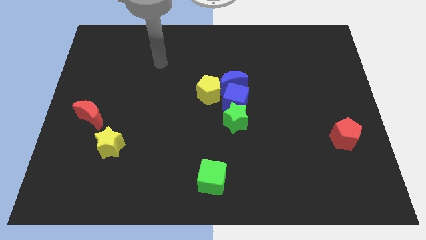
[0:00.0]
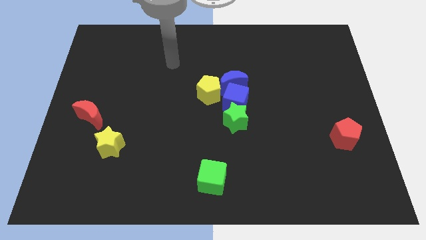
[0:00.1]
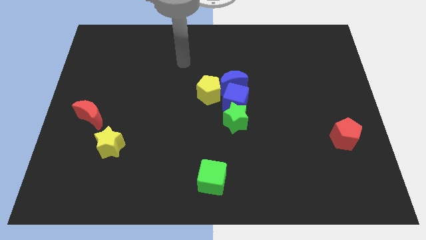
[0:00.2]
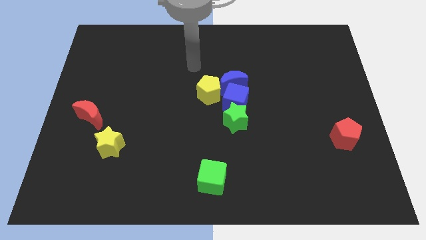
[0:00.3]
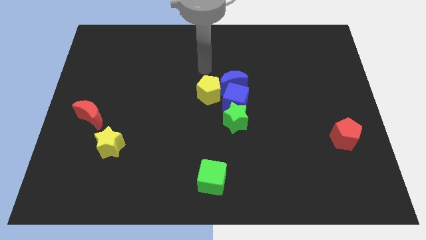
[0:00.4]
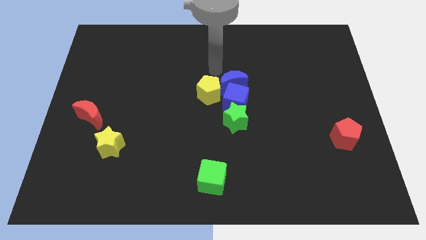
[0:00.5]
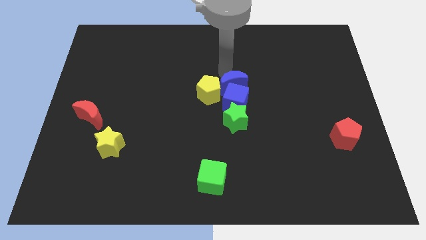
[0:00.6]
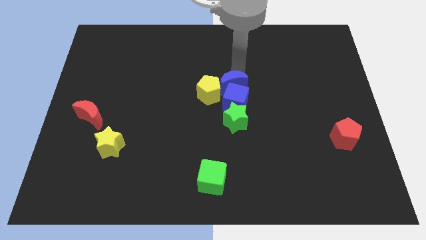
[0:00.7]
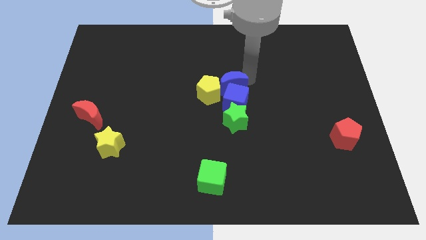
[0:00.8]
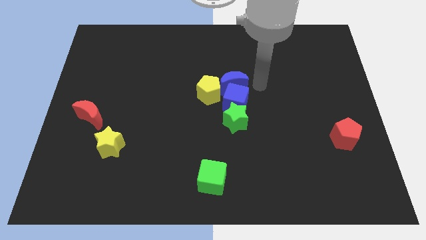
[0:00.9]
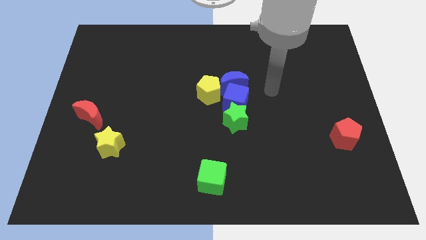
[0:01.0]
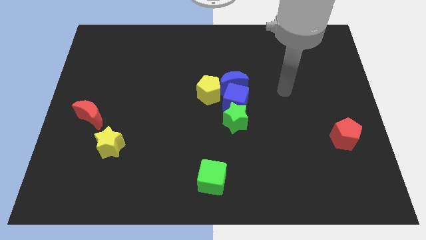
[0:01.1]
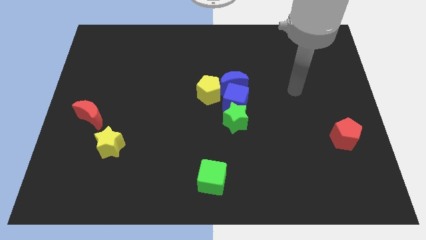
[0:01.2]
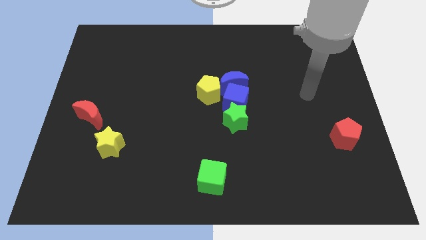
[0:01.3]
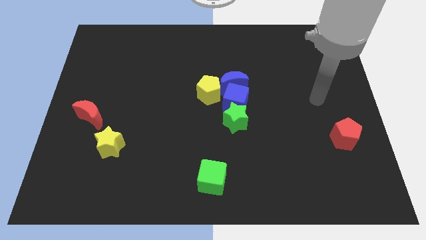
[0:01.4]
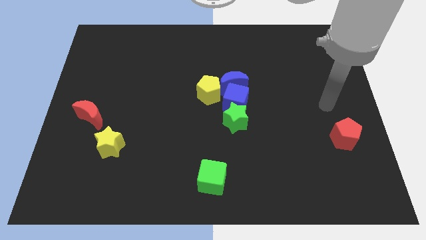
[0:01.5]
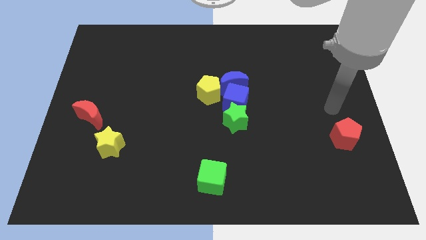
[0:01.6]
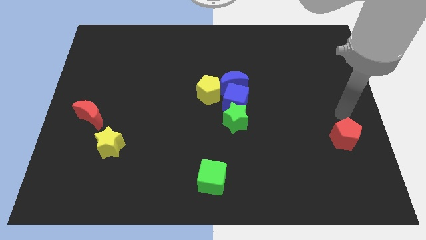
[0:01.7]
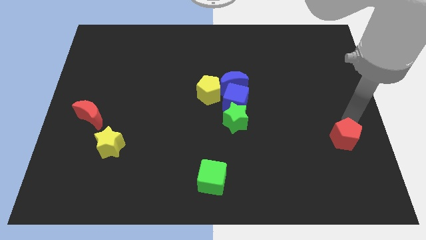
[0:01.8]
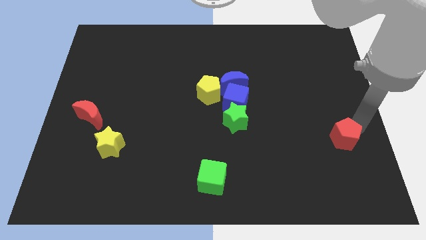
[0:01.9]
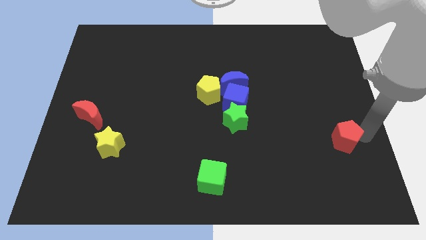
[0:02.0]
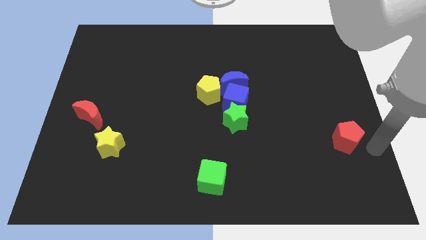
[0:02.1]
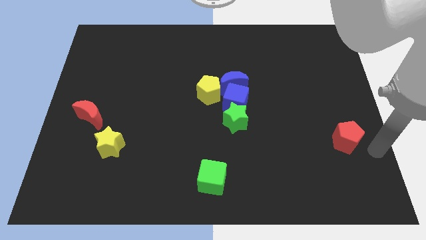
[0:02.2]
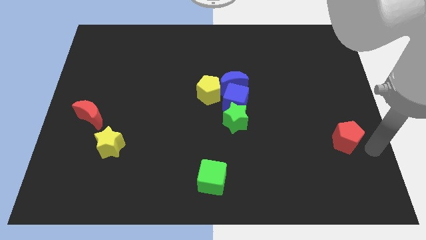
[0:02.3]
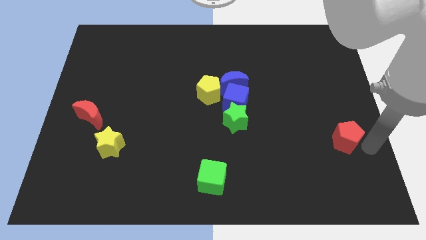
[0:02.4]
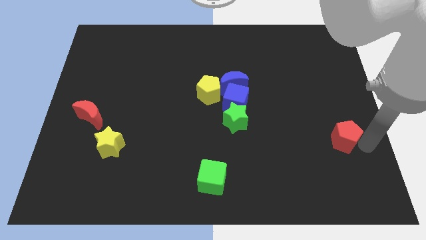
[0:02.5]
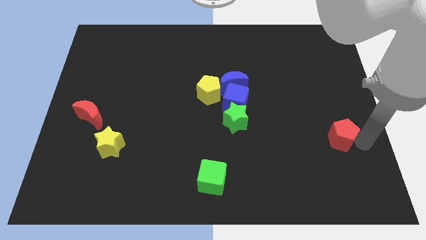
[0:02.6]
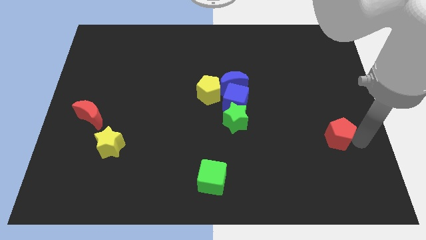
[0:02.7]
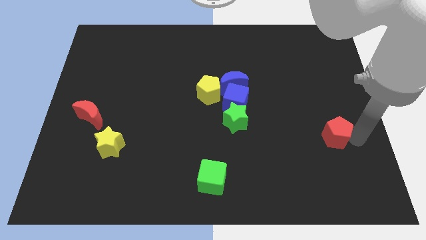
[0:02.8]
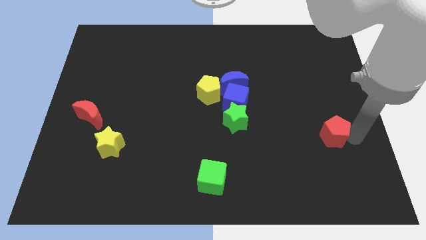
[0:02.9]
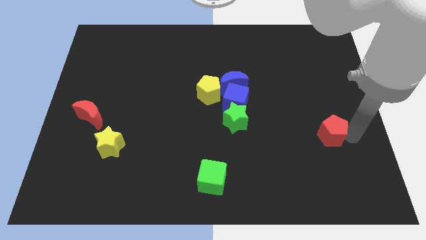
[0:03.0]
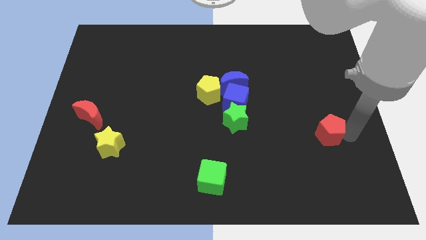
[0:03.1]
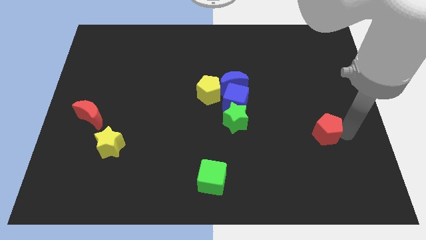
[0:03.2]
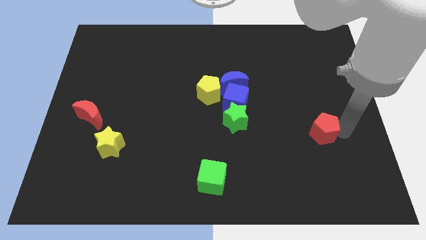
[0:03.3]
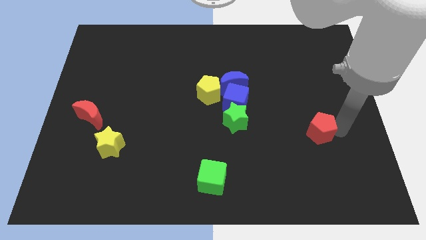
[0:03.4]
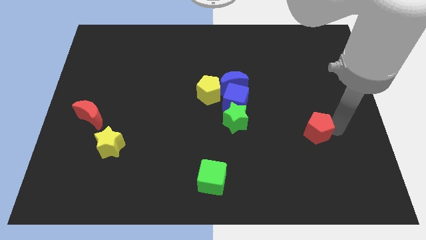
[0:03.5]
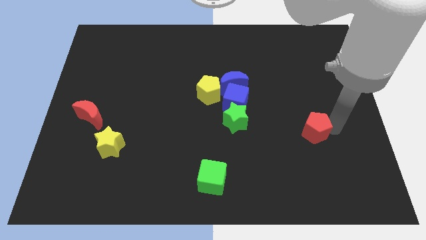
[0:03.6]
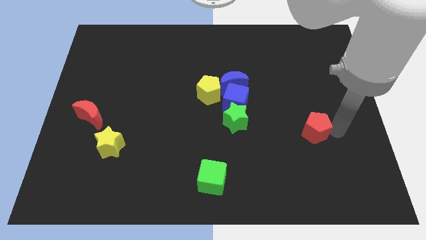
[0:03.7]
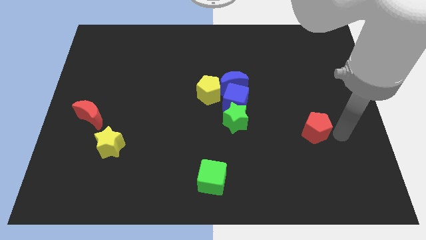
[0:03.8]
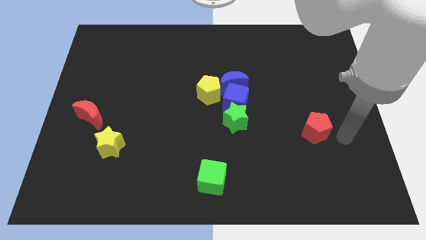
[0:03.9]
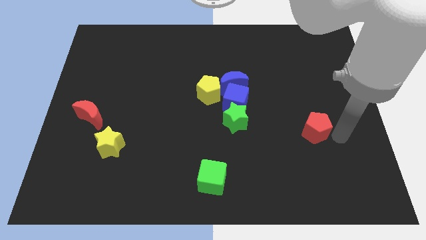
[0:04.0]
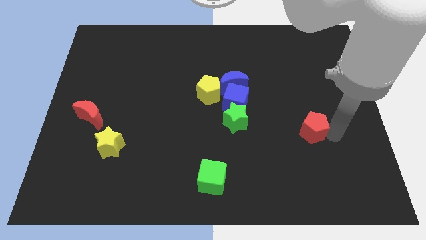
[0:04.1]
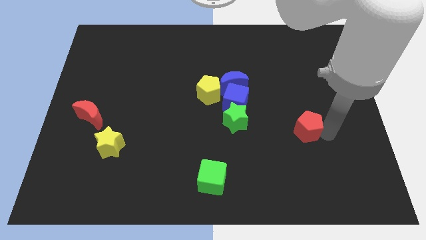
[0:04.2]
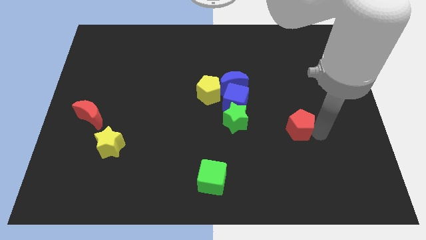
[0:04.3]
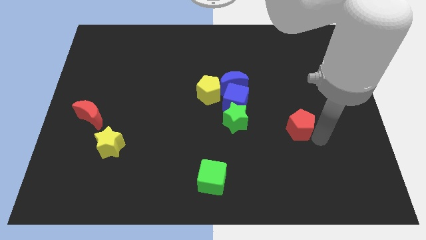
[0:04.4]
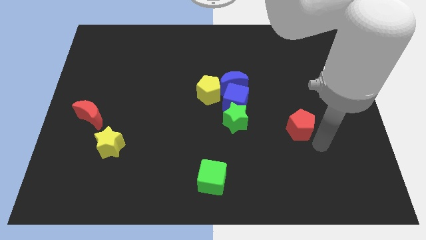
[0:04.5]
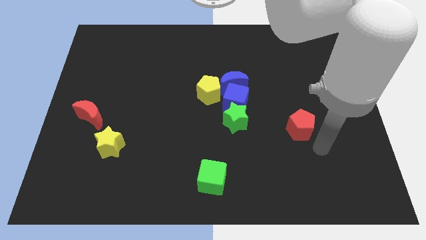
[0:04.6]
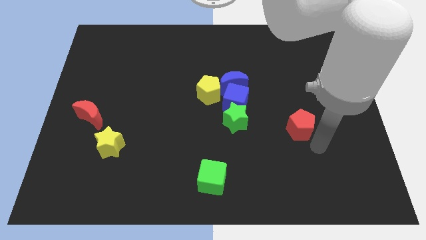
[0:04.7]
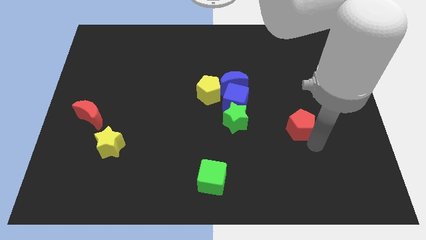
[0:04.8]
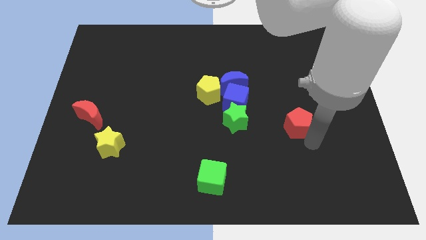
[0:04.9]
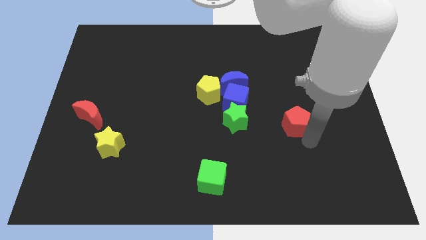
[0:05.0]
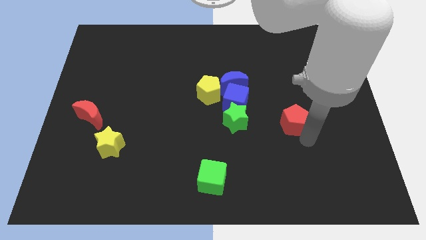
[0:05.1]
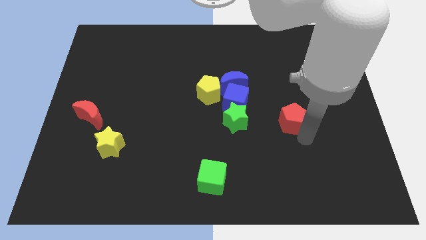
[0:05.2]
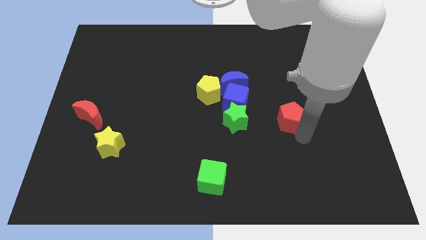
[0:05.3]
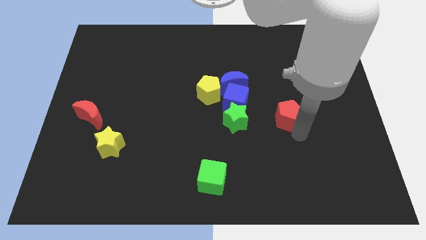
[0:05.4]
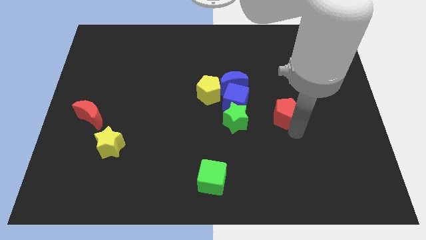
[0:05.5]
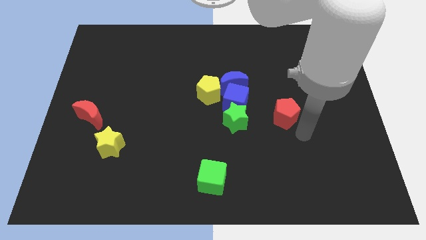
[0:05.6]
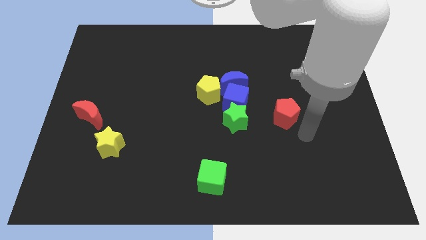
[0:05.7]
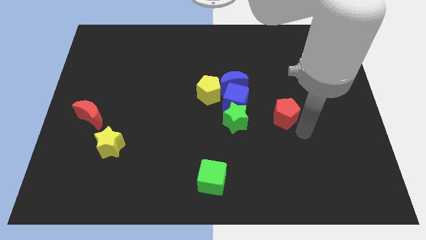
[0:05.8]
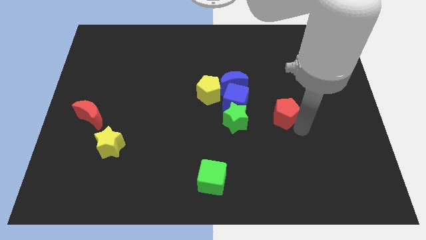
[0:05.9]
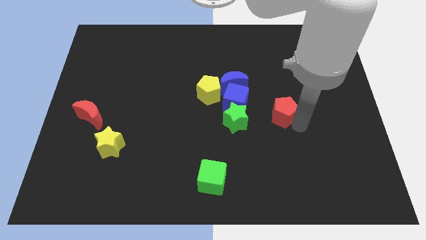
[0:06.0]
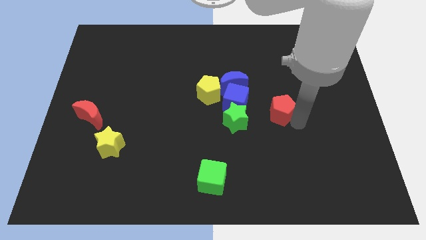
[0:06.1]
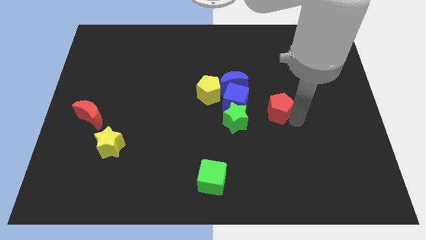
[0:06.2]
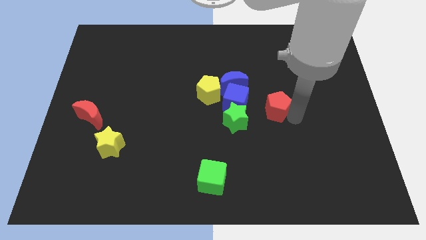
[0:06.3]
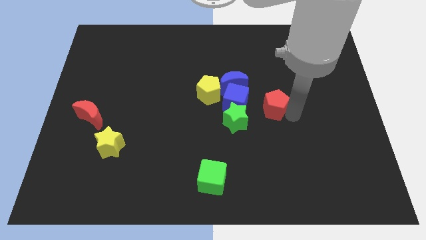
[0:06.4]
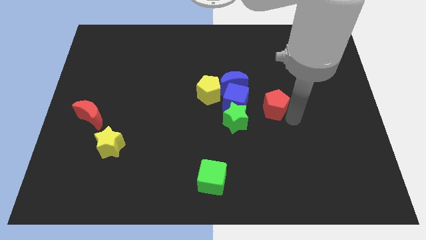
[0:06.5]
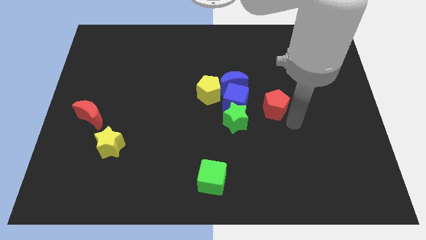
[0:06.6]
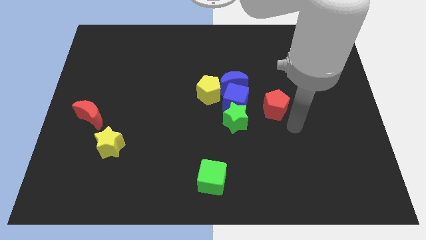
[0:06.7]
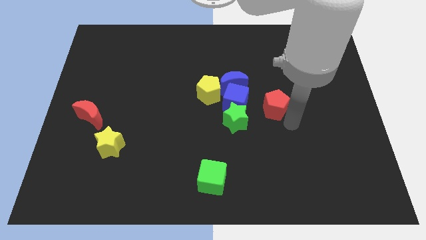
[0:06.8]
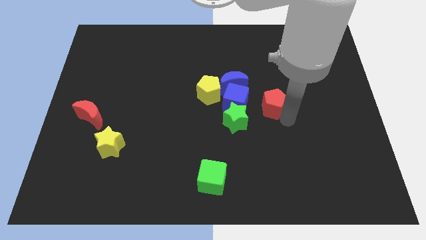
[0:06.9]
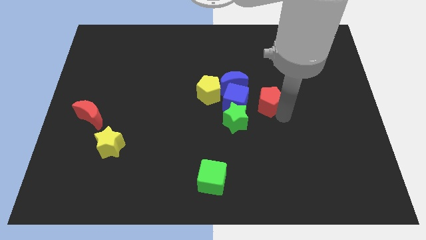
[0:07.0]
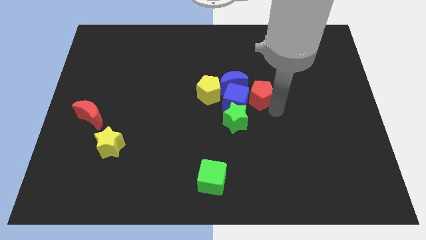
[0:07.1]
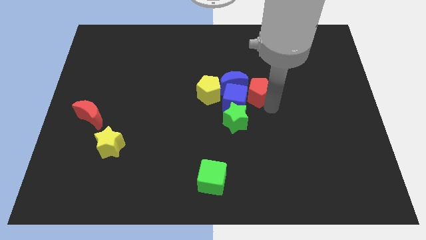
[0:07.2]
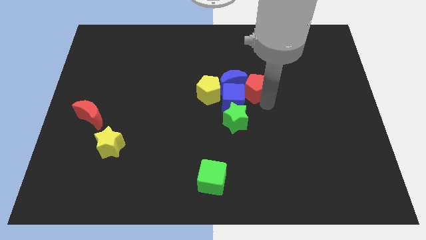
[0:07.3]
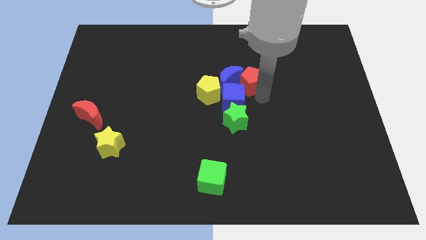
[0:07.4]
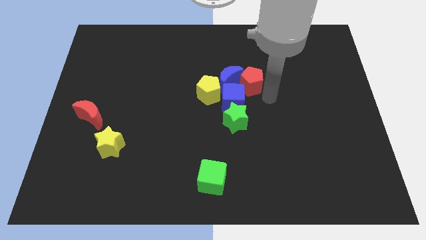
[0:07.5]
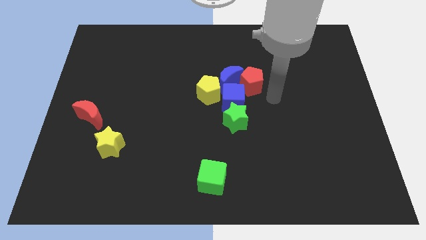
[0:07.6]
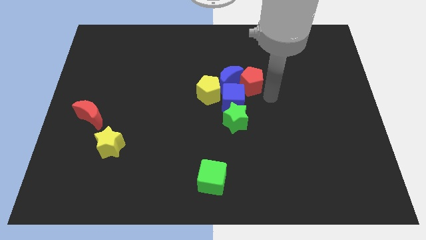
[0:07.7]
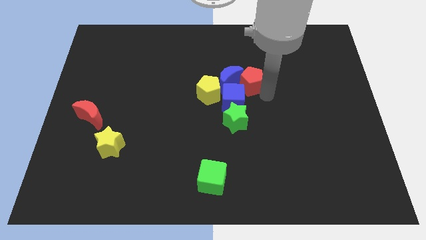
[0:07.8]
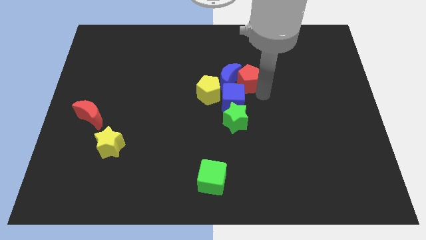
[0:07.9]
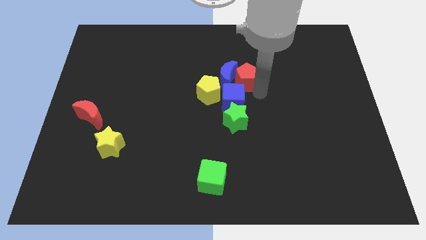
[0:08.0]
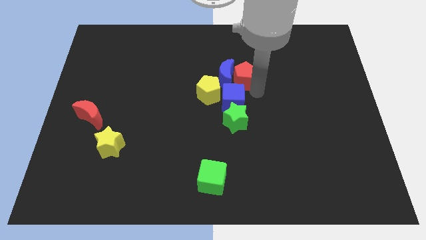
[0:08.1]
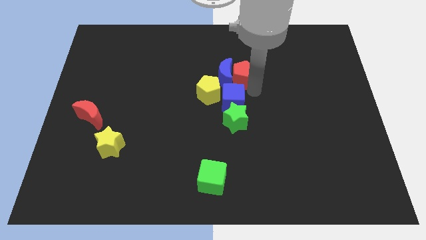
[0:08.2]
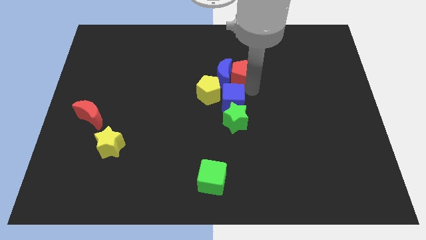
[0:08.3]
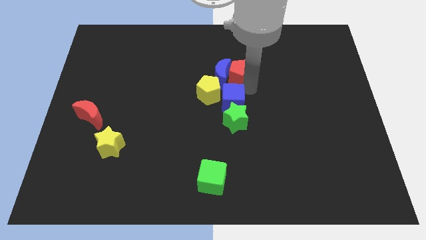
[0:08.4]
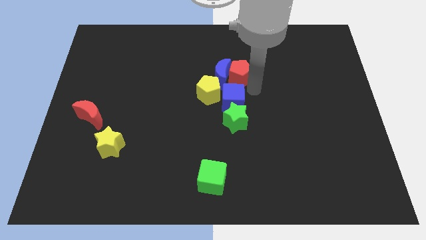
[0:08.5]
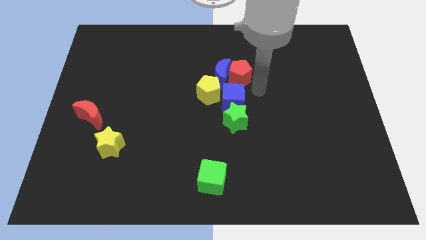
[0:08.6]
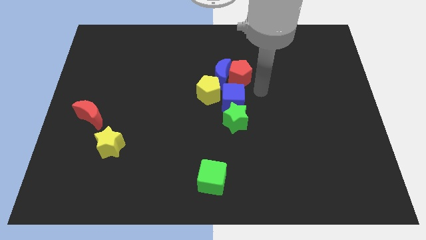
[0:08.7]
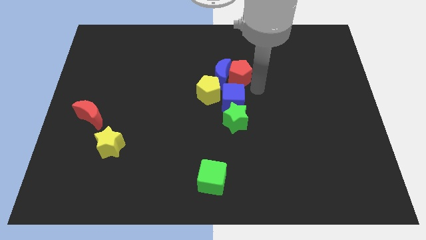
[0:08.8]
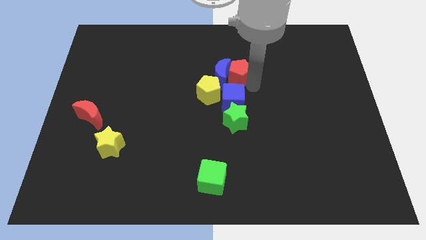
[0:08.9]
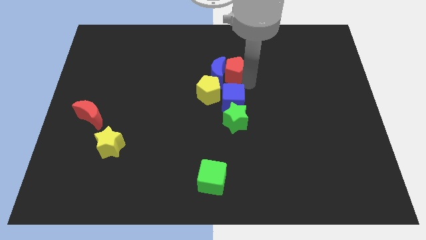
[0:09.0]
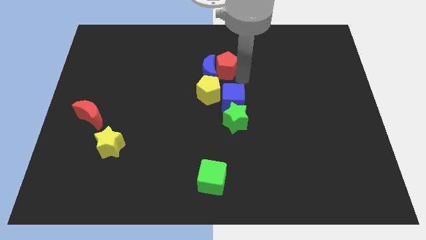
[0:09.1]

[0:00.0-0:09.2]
put the red pentagon to the top of the yellow pentagon
